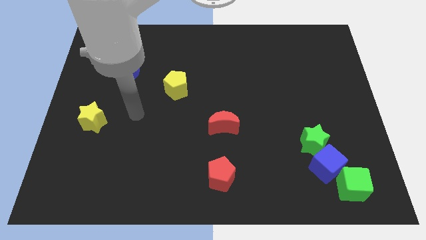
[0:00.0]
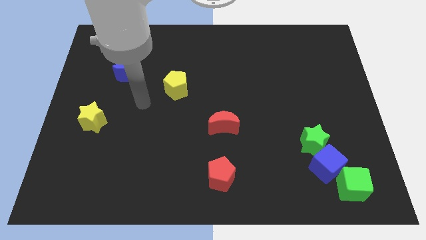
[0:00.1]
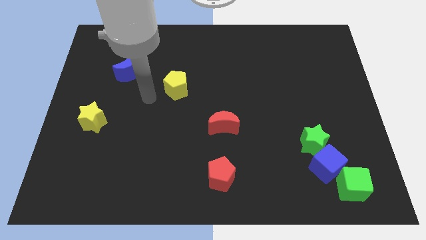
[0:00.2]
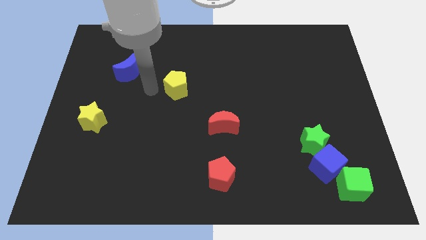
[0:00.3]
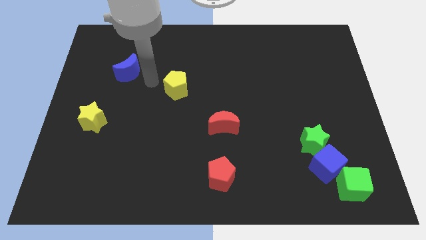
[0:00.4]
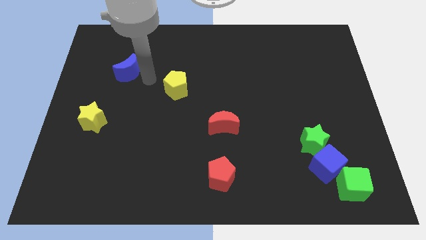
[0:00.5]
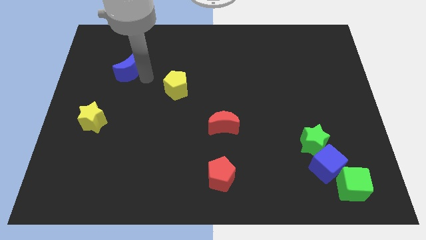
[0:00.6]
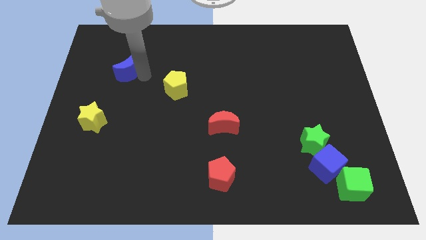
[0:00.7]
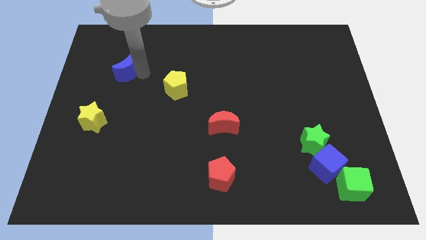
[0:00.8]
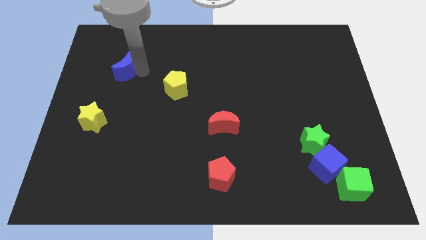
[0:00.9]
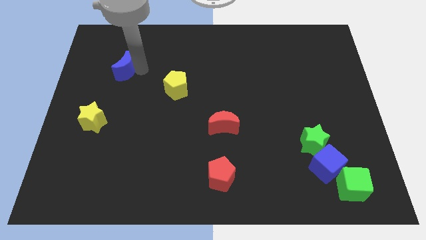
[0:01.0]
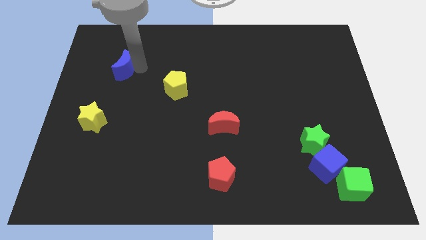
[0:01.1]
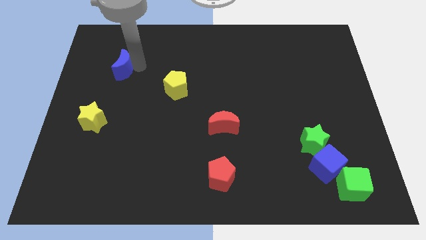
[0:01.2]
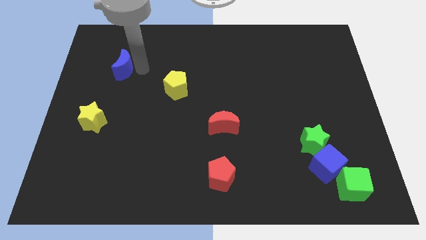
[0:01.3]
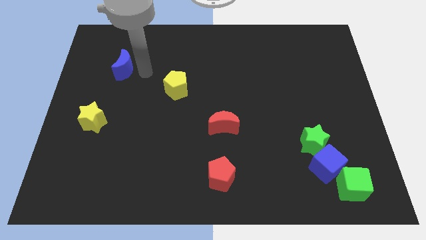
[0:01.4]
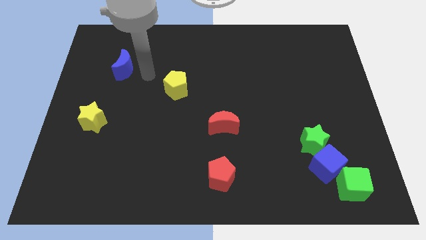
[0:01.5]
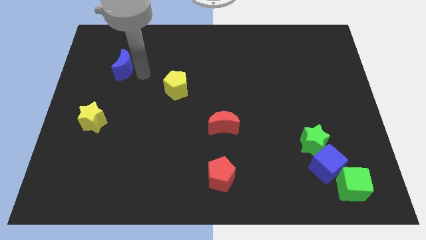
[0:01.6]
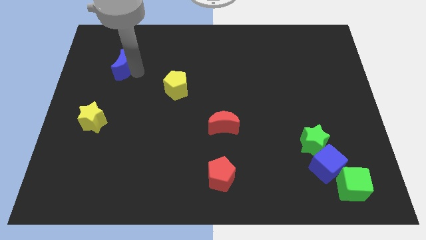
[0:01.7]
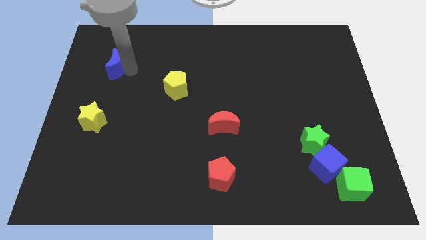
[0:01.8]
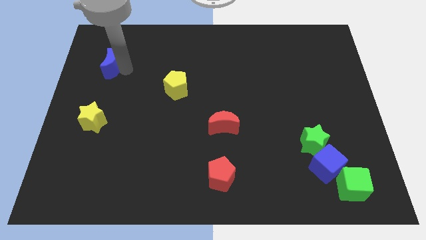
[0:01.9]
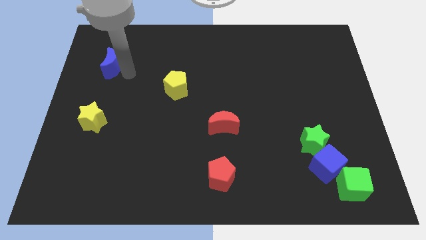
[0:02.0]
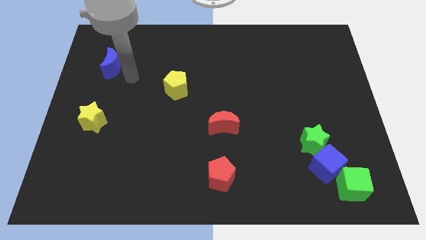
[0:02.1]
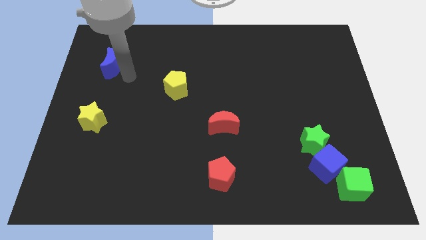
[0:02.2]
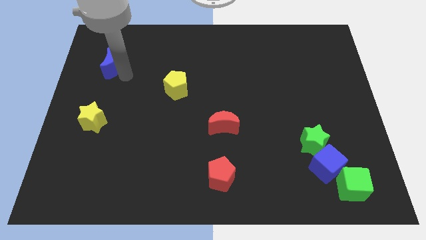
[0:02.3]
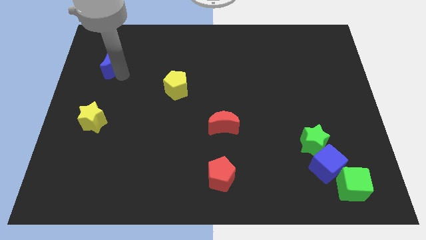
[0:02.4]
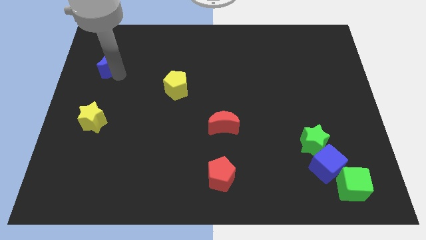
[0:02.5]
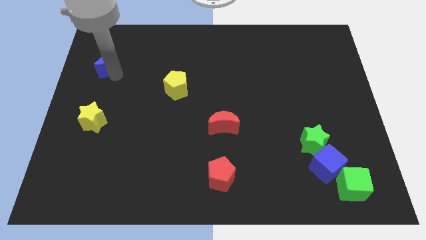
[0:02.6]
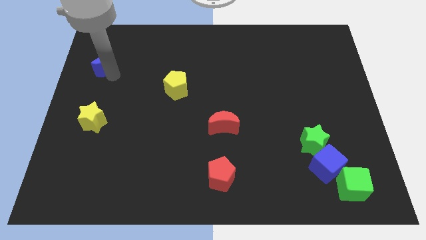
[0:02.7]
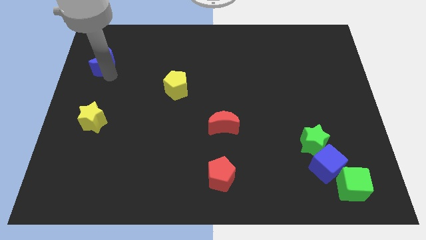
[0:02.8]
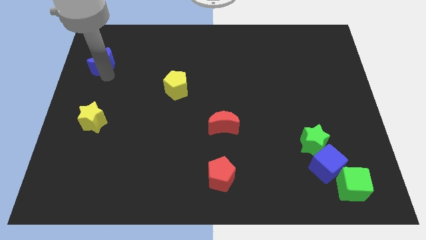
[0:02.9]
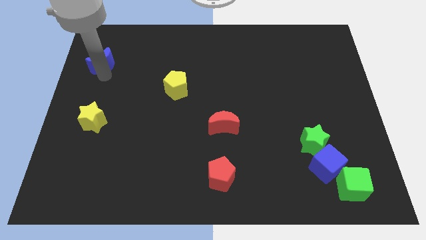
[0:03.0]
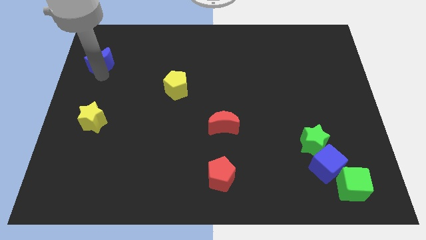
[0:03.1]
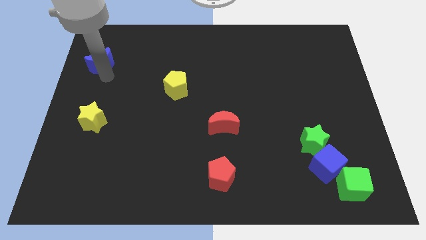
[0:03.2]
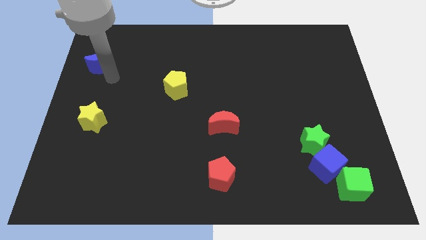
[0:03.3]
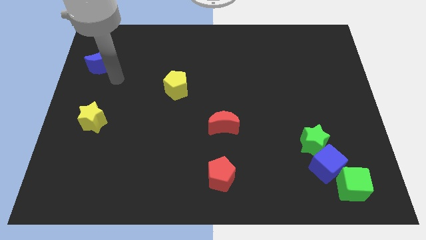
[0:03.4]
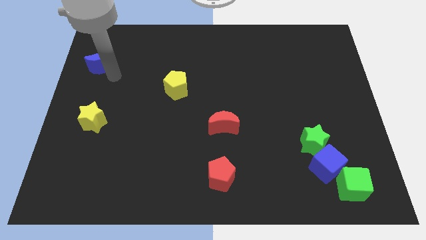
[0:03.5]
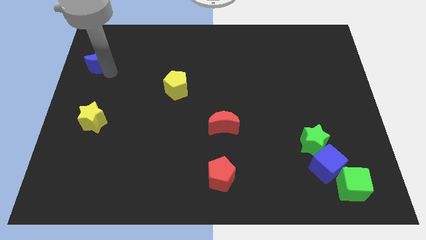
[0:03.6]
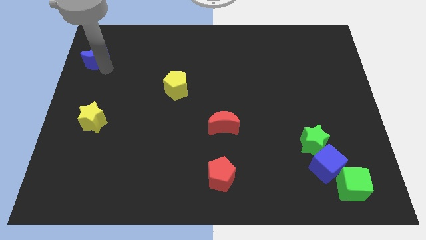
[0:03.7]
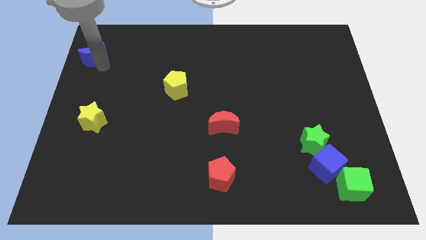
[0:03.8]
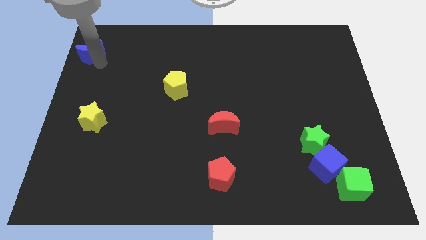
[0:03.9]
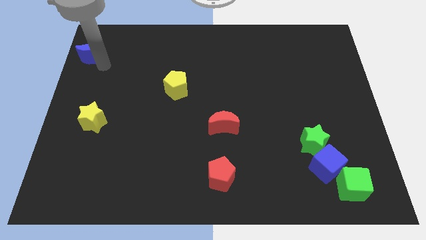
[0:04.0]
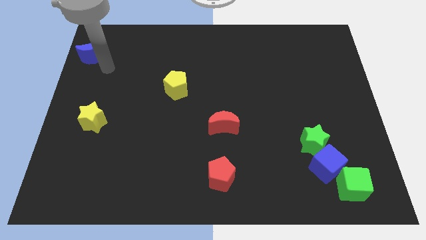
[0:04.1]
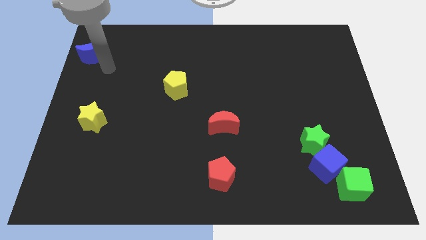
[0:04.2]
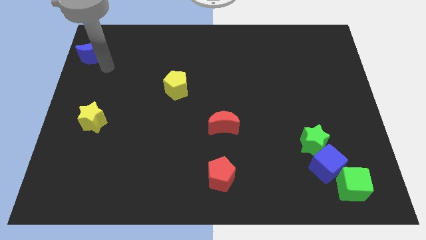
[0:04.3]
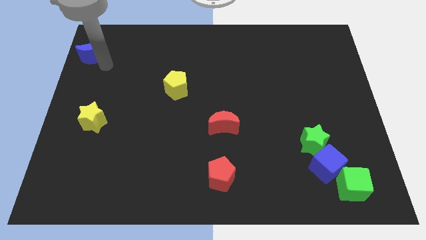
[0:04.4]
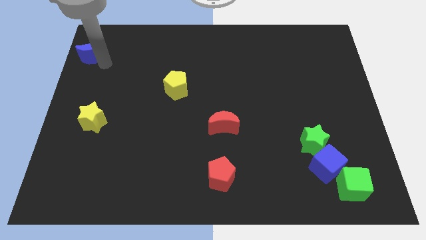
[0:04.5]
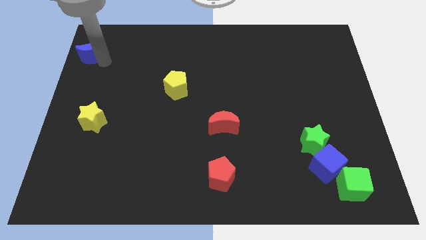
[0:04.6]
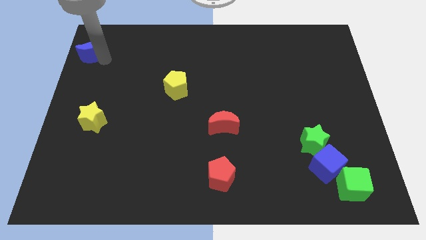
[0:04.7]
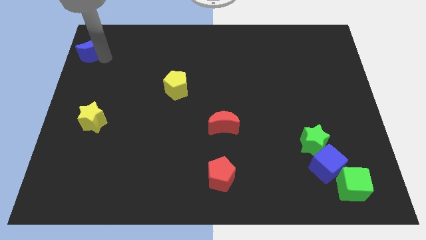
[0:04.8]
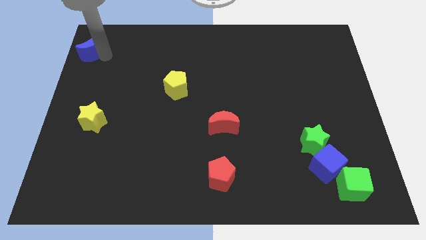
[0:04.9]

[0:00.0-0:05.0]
move the blue moon to the top left of the board

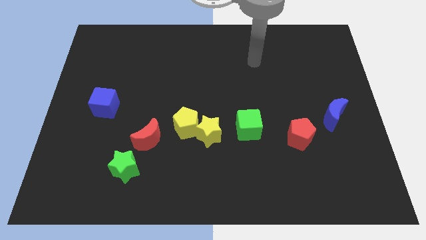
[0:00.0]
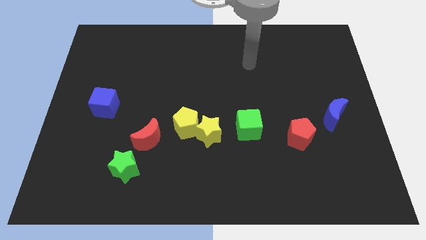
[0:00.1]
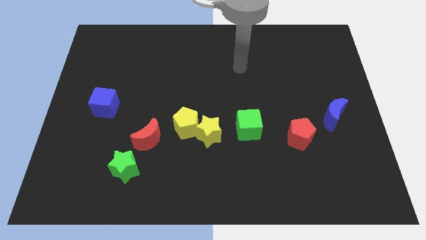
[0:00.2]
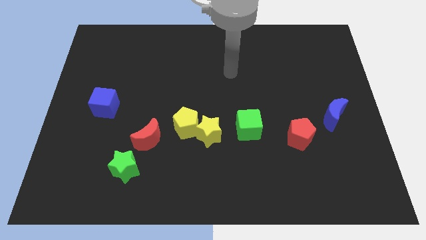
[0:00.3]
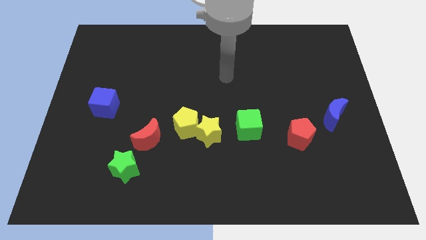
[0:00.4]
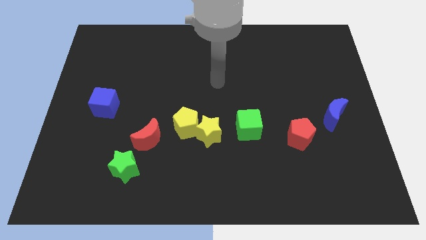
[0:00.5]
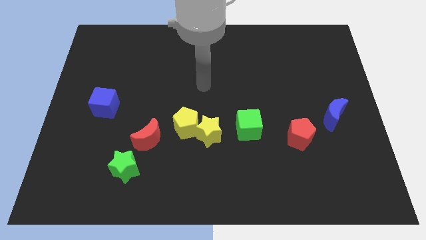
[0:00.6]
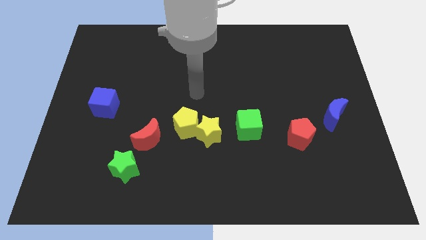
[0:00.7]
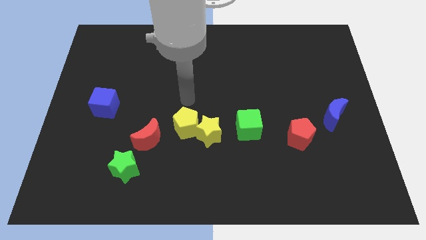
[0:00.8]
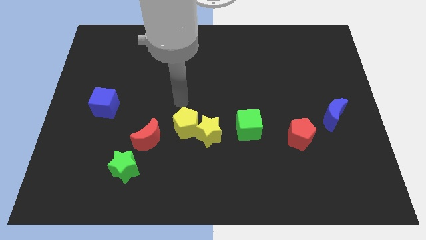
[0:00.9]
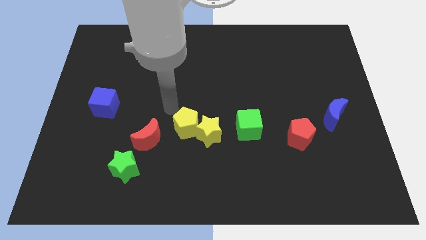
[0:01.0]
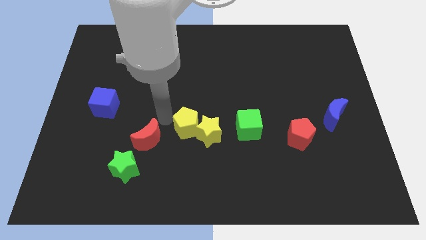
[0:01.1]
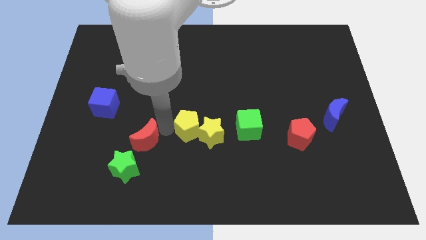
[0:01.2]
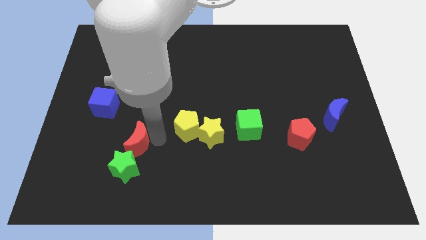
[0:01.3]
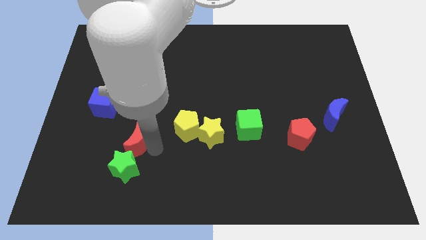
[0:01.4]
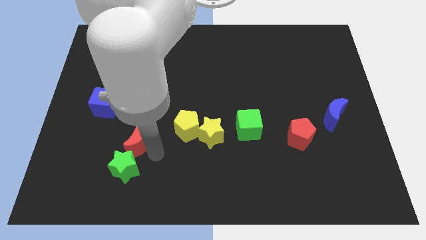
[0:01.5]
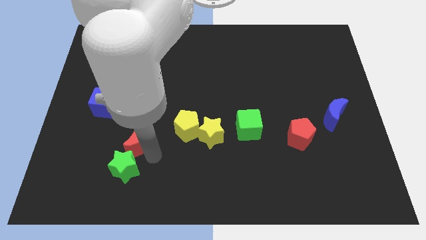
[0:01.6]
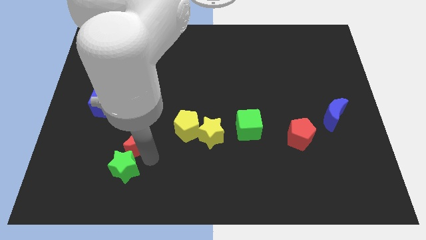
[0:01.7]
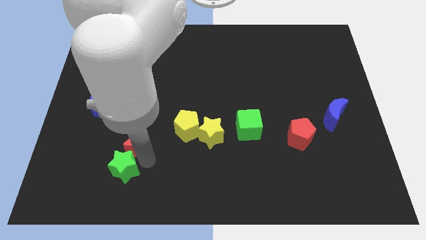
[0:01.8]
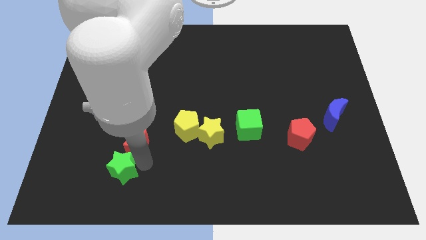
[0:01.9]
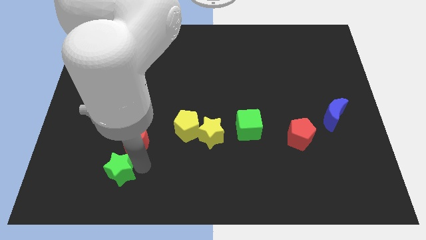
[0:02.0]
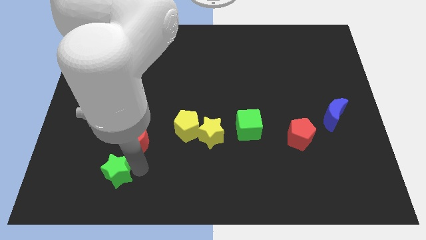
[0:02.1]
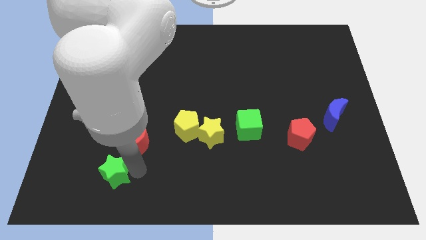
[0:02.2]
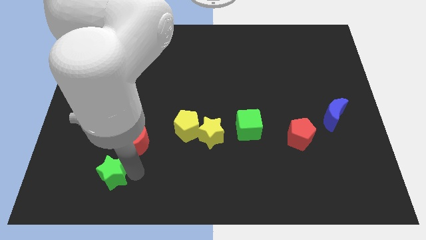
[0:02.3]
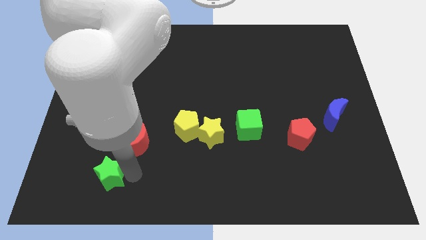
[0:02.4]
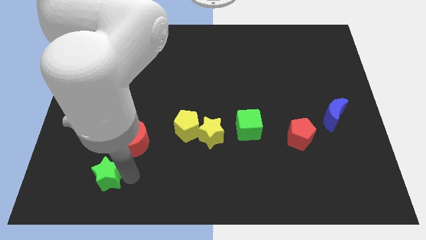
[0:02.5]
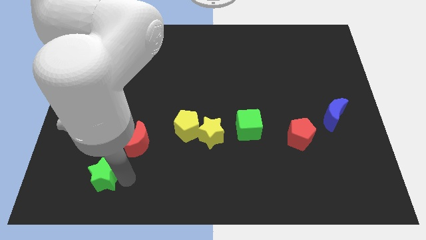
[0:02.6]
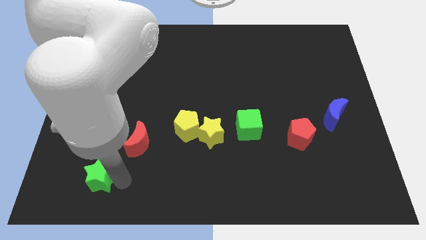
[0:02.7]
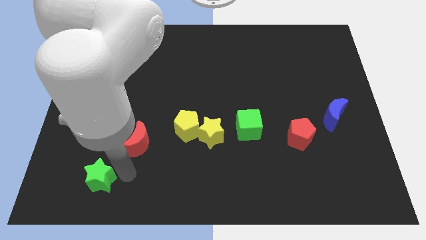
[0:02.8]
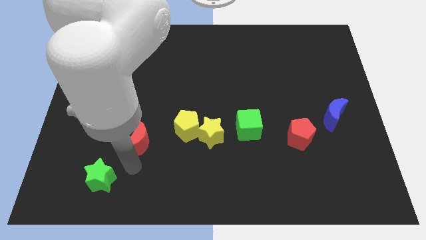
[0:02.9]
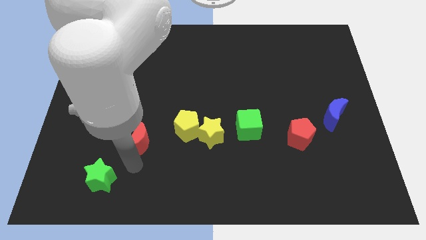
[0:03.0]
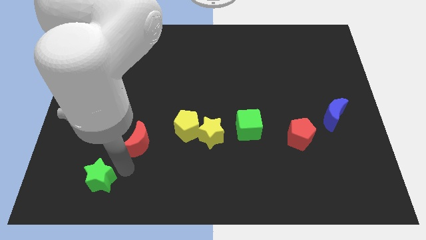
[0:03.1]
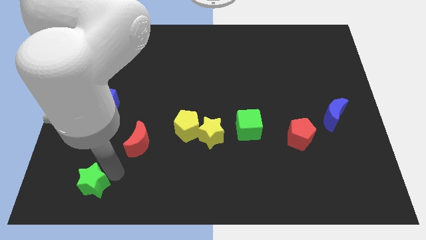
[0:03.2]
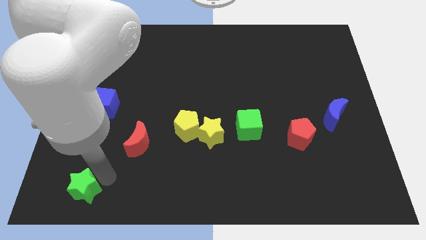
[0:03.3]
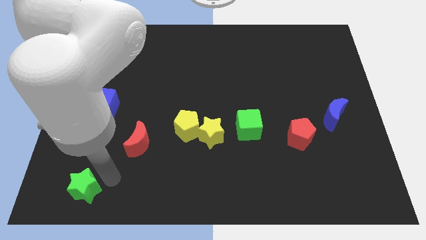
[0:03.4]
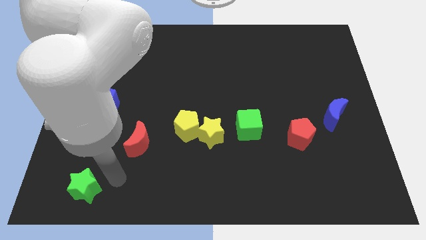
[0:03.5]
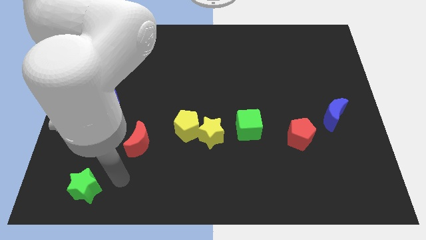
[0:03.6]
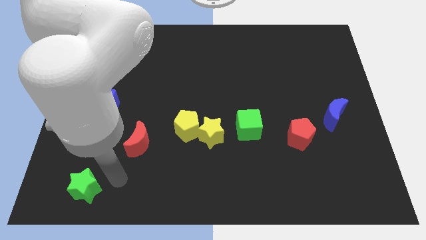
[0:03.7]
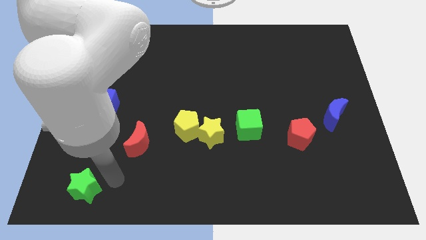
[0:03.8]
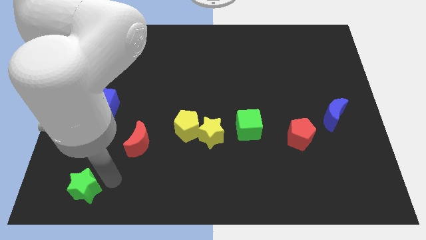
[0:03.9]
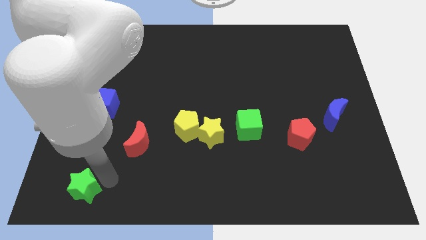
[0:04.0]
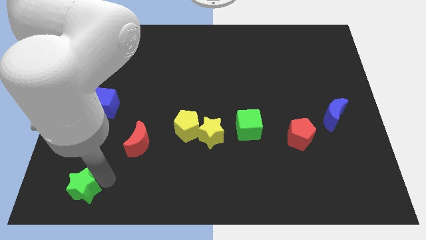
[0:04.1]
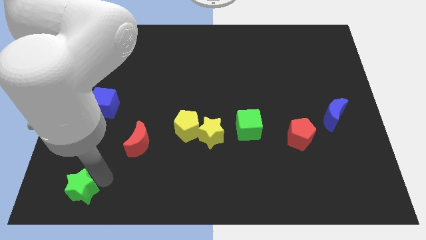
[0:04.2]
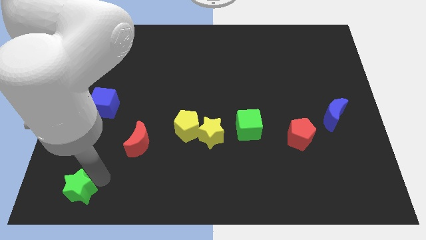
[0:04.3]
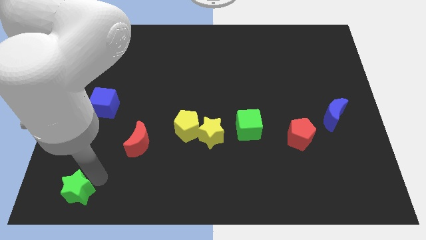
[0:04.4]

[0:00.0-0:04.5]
push the green star to the bottom left
